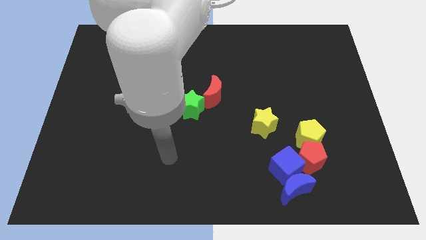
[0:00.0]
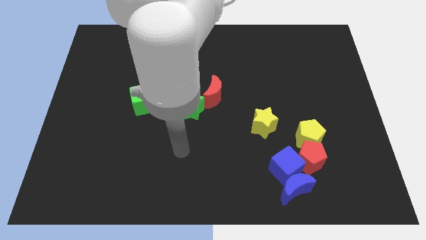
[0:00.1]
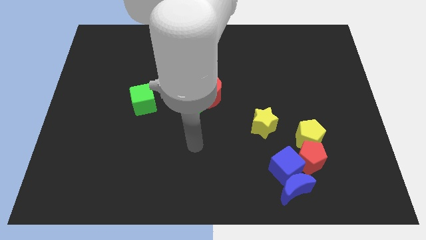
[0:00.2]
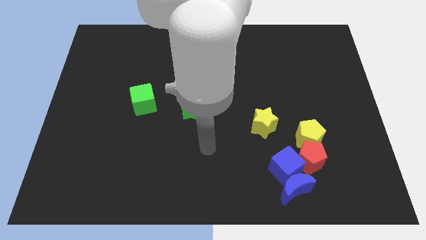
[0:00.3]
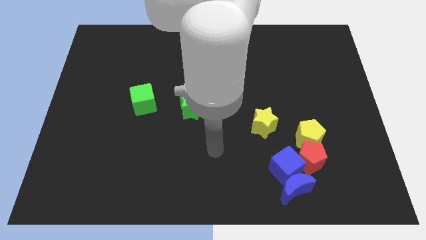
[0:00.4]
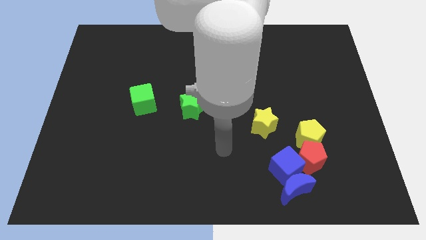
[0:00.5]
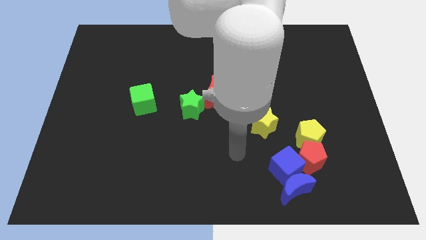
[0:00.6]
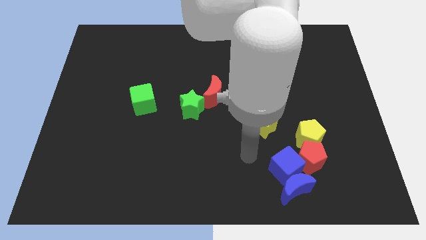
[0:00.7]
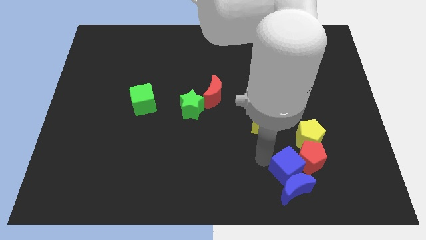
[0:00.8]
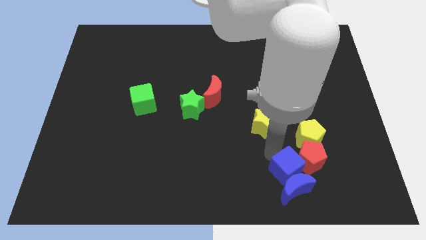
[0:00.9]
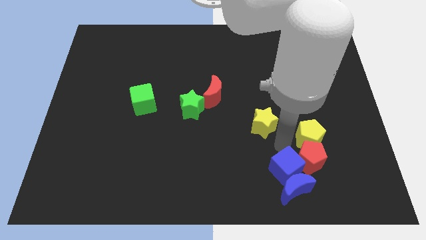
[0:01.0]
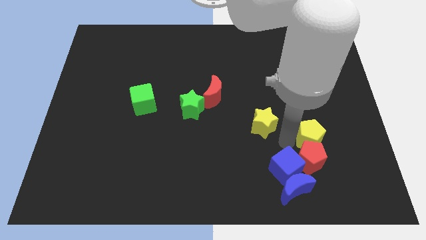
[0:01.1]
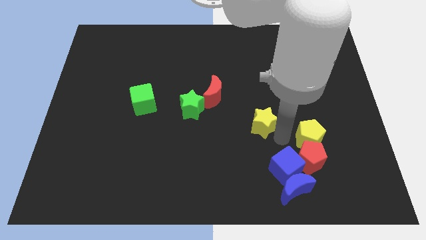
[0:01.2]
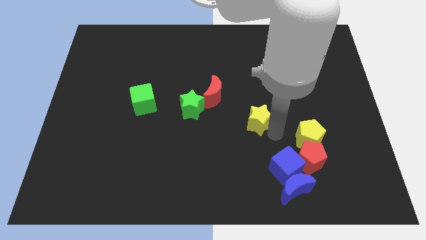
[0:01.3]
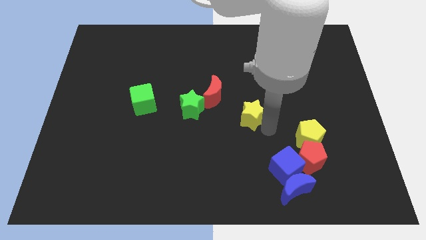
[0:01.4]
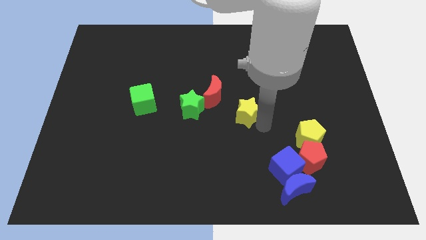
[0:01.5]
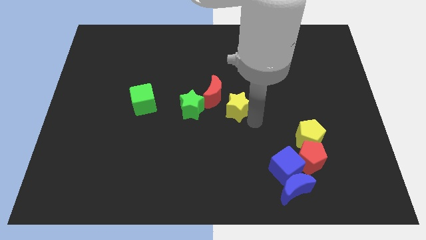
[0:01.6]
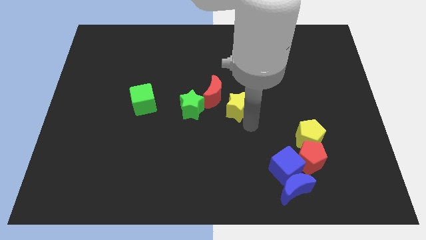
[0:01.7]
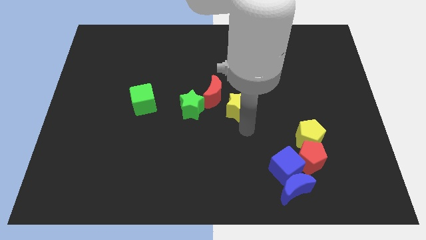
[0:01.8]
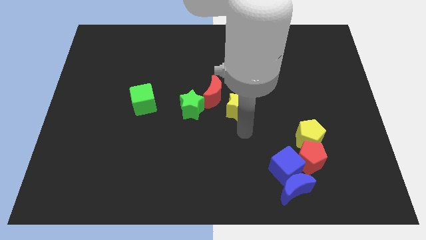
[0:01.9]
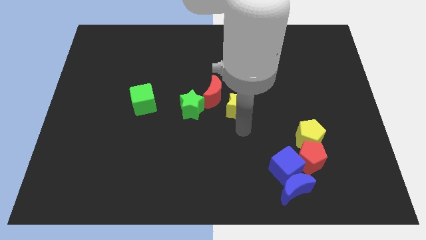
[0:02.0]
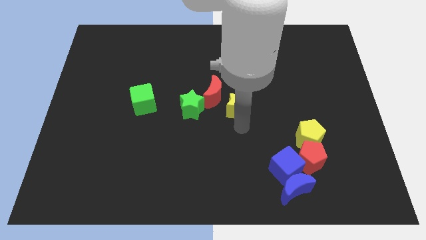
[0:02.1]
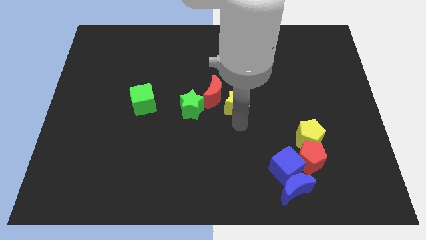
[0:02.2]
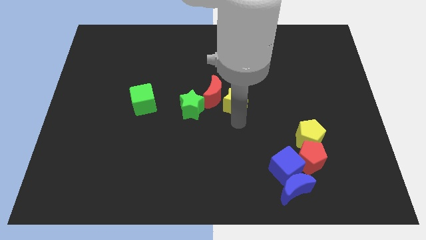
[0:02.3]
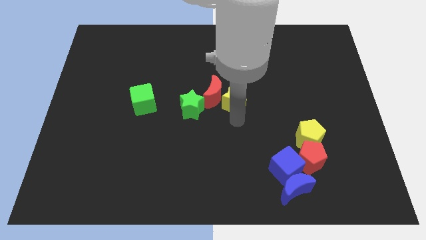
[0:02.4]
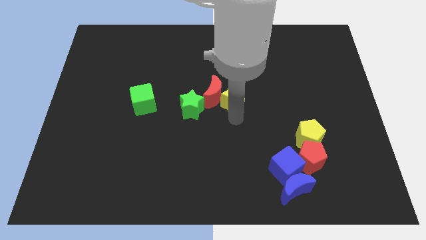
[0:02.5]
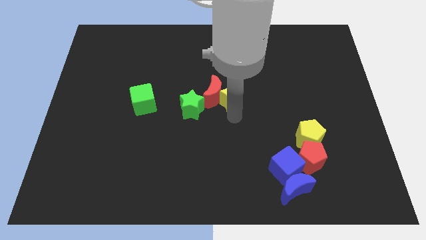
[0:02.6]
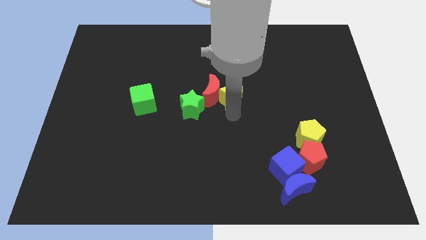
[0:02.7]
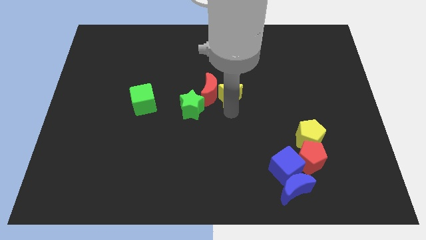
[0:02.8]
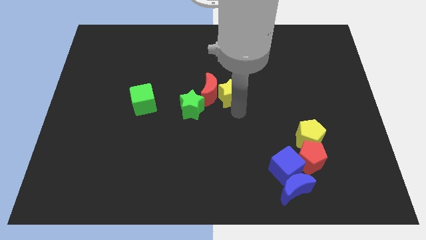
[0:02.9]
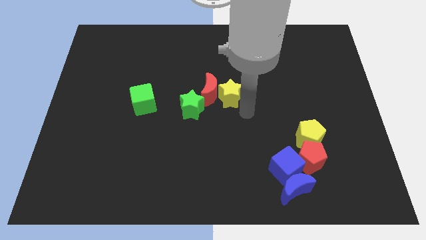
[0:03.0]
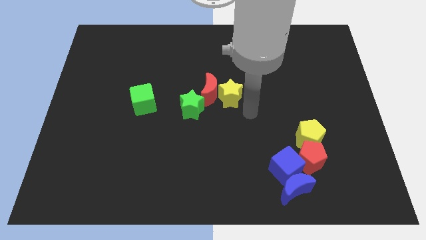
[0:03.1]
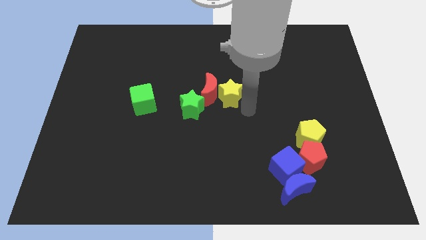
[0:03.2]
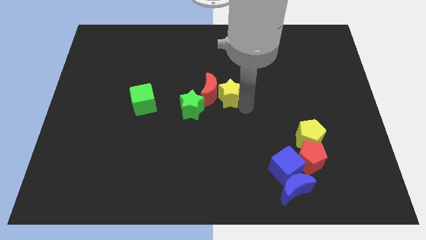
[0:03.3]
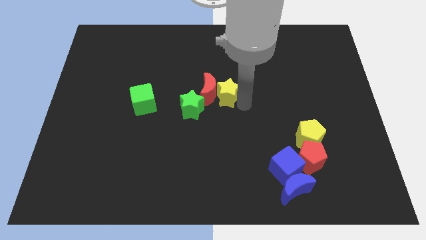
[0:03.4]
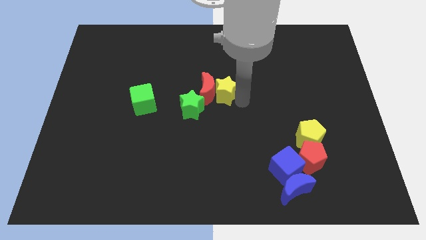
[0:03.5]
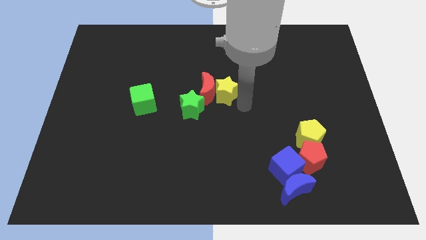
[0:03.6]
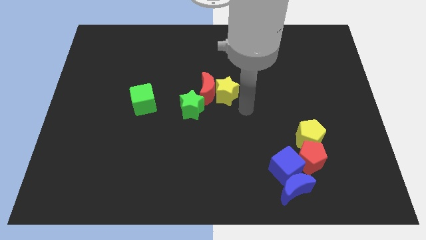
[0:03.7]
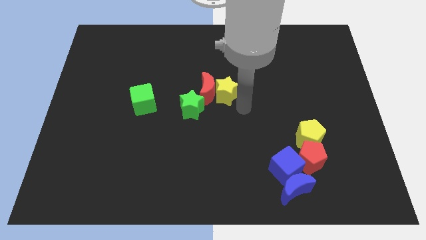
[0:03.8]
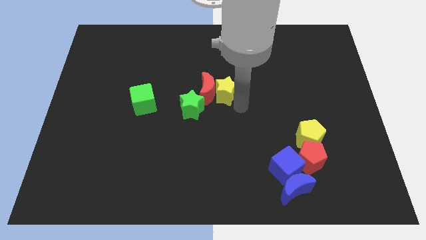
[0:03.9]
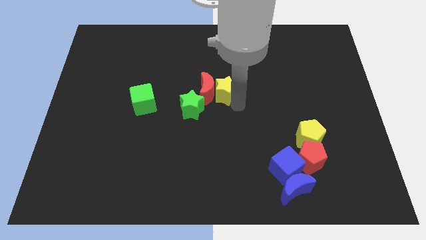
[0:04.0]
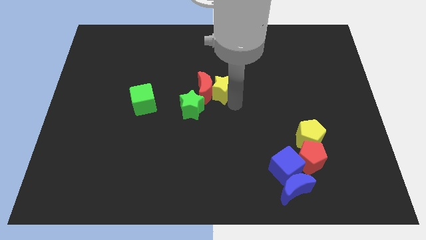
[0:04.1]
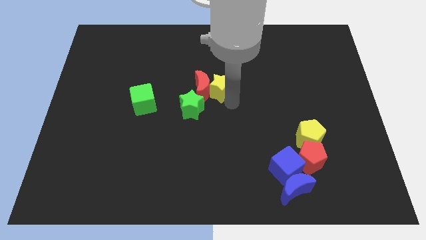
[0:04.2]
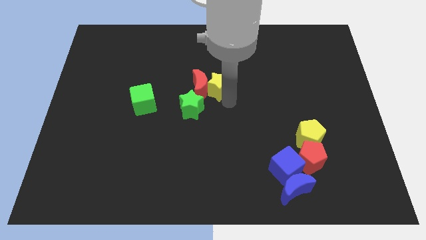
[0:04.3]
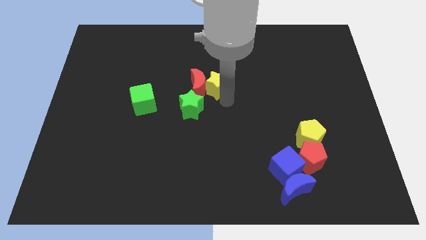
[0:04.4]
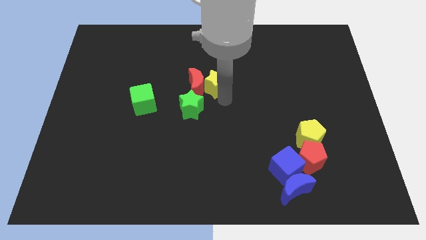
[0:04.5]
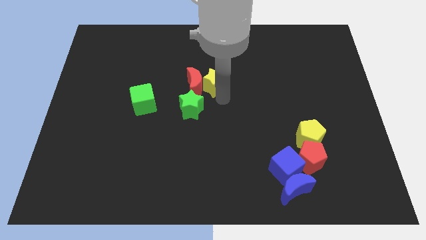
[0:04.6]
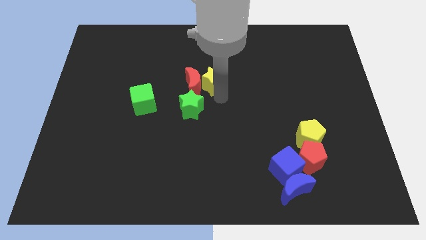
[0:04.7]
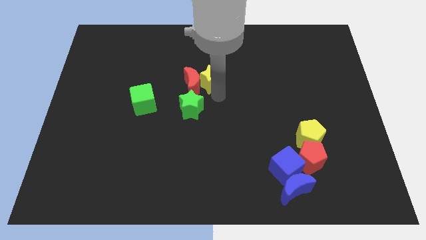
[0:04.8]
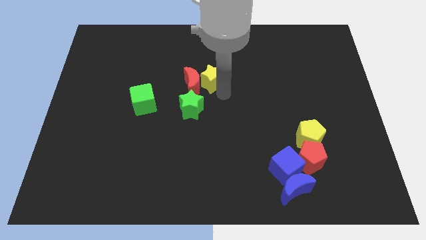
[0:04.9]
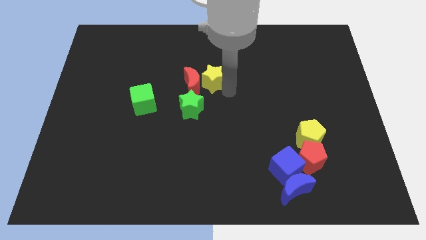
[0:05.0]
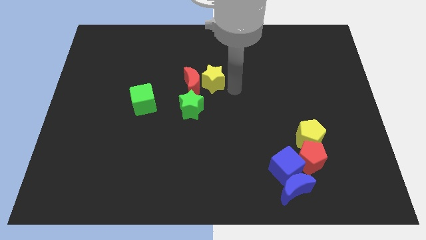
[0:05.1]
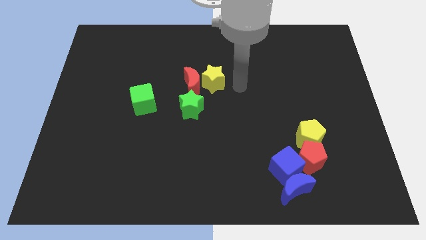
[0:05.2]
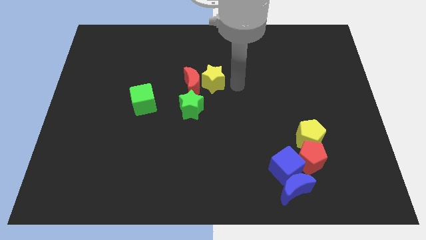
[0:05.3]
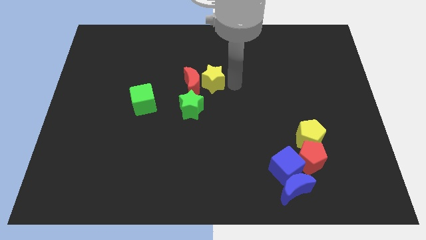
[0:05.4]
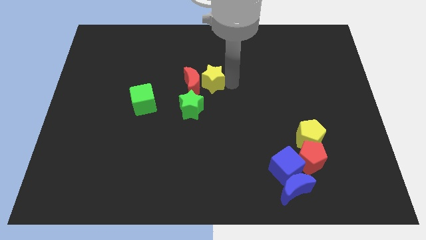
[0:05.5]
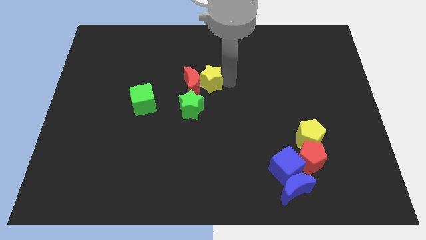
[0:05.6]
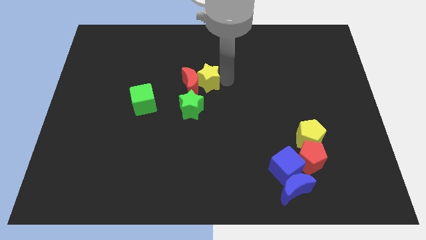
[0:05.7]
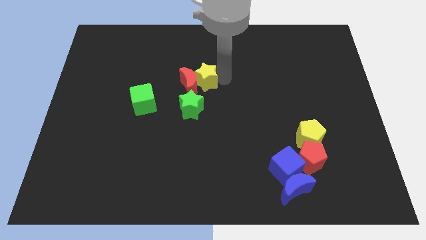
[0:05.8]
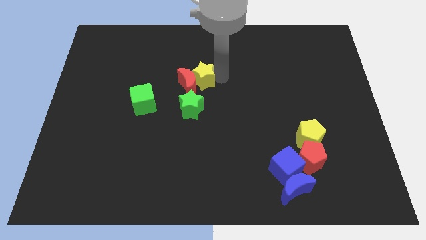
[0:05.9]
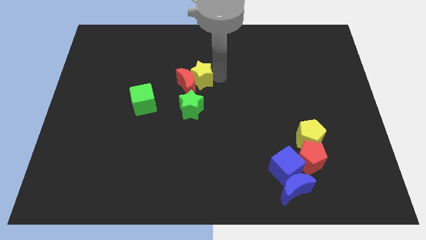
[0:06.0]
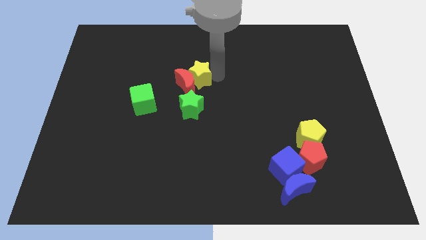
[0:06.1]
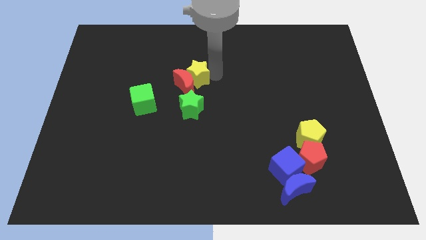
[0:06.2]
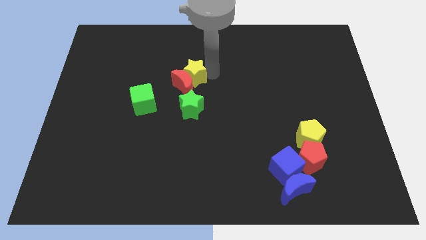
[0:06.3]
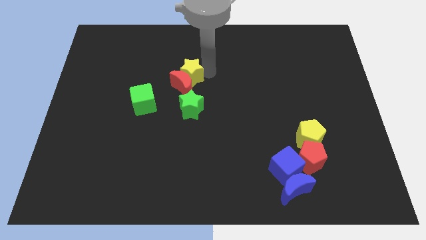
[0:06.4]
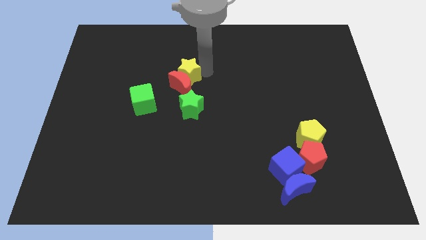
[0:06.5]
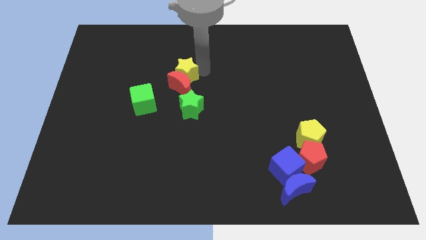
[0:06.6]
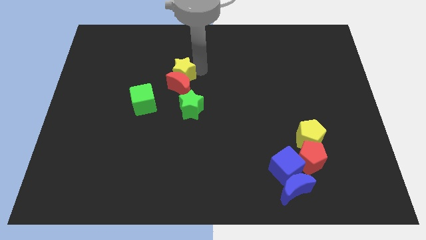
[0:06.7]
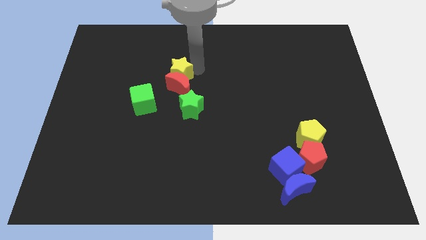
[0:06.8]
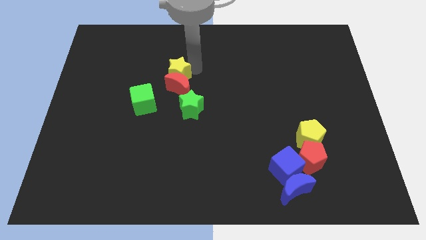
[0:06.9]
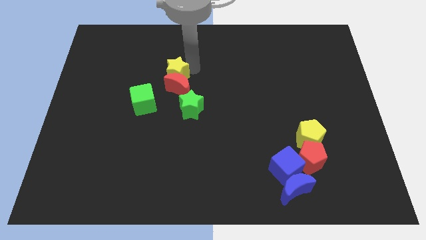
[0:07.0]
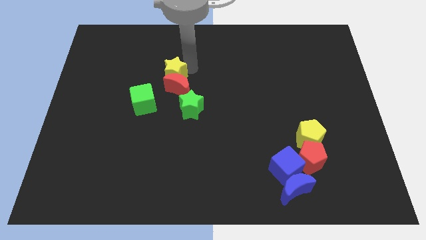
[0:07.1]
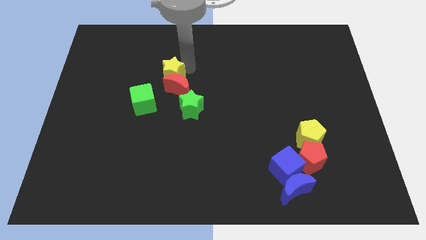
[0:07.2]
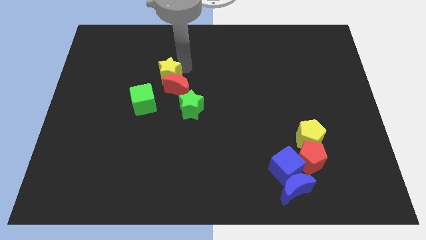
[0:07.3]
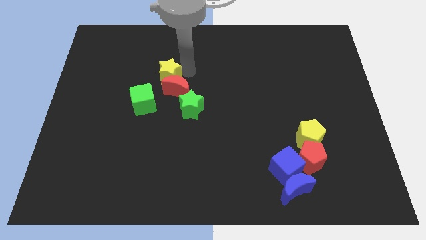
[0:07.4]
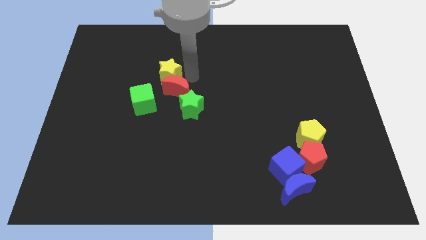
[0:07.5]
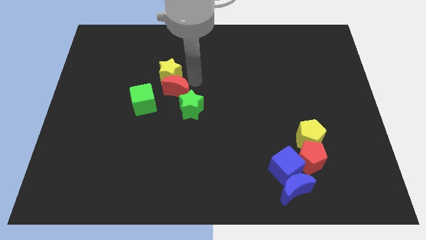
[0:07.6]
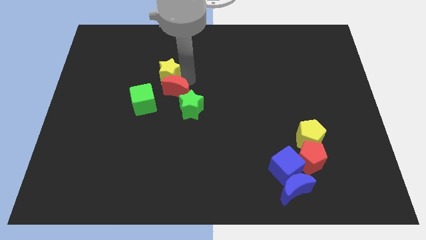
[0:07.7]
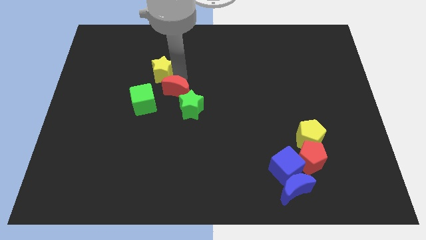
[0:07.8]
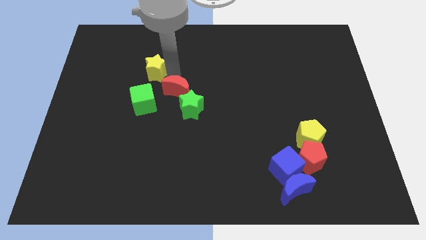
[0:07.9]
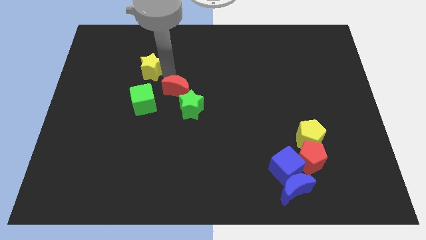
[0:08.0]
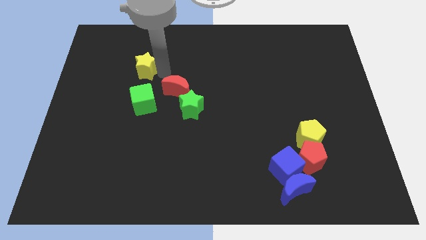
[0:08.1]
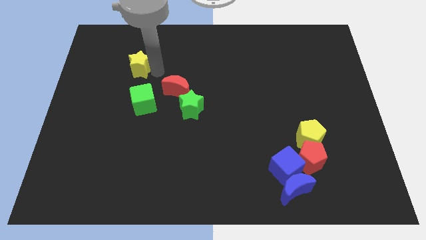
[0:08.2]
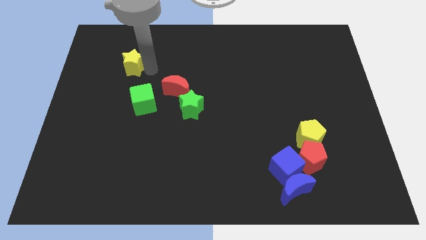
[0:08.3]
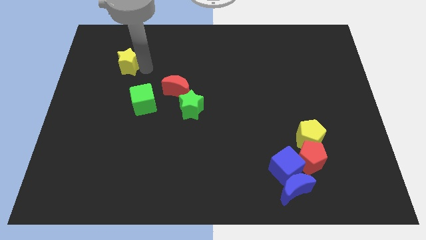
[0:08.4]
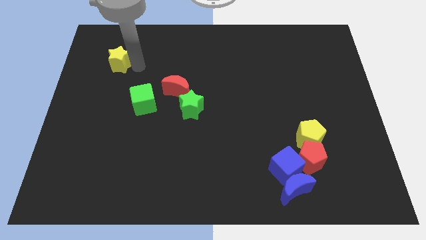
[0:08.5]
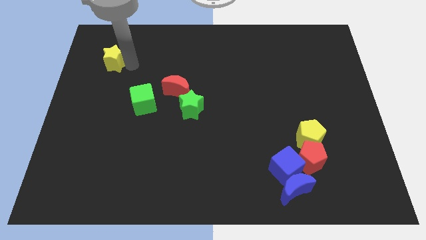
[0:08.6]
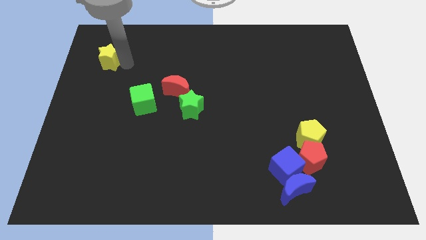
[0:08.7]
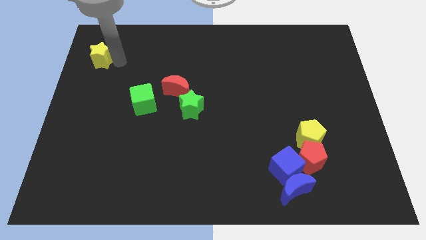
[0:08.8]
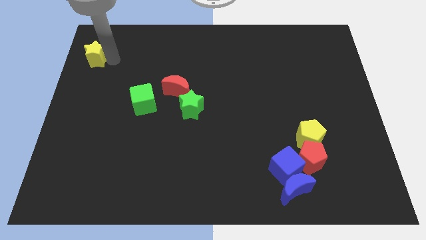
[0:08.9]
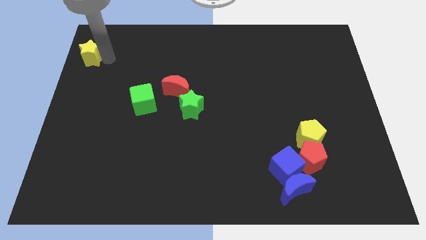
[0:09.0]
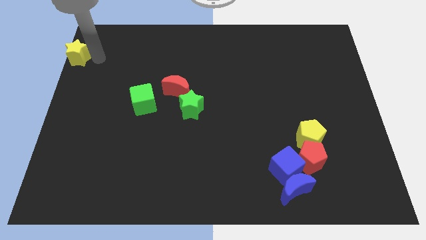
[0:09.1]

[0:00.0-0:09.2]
slide the yellow star to the top left corner
